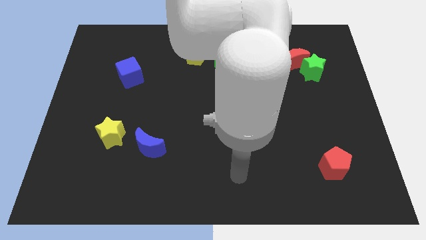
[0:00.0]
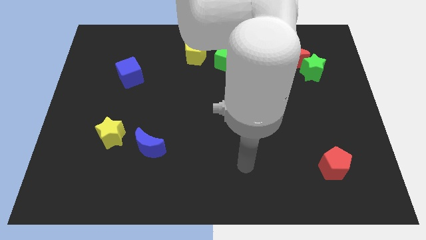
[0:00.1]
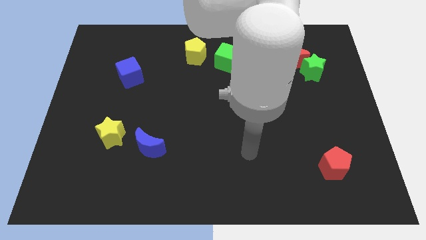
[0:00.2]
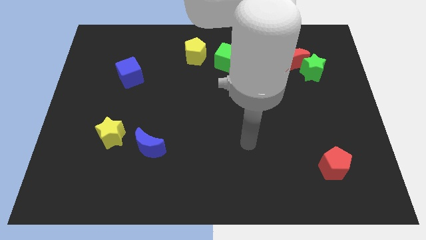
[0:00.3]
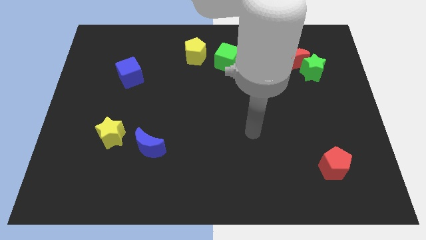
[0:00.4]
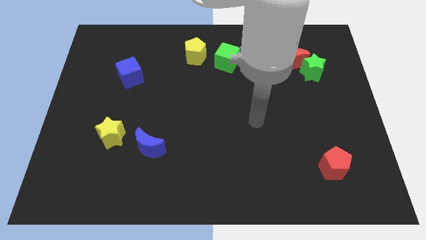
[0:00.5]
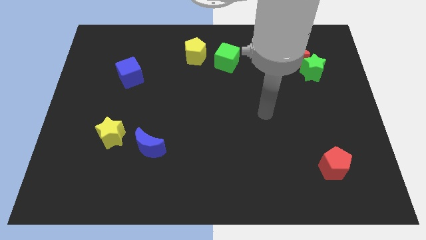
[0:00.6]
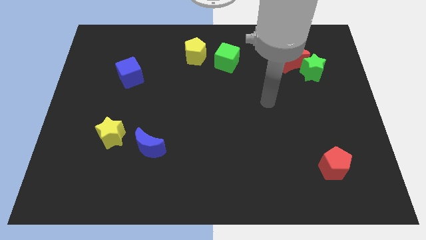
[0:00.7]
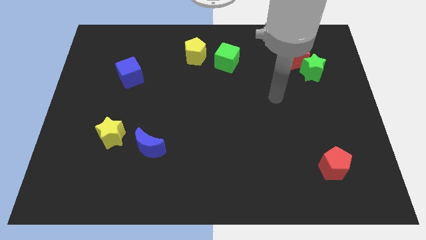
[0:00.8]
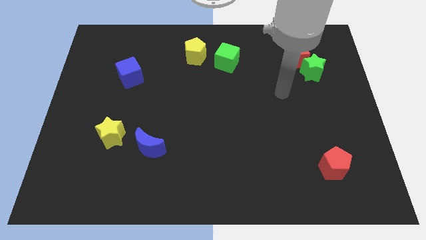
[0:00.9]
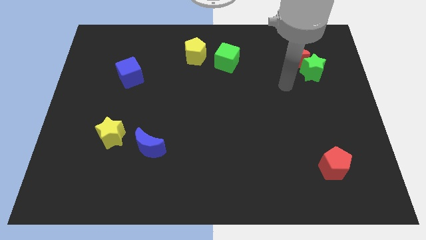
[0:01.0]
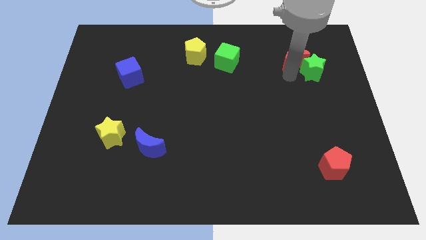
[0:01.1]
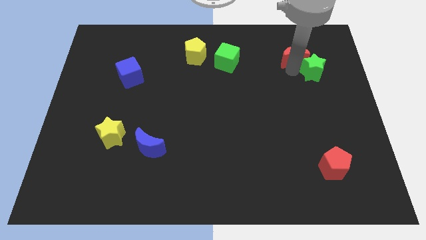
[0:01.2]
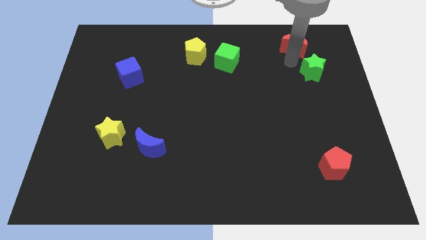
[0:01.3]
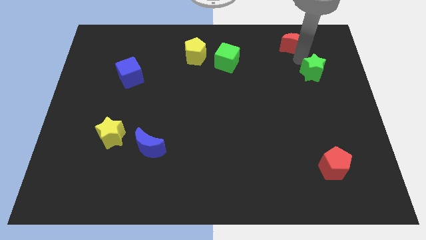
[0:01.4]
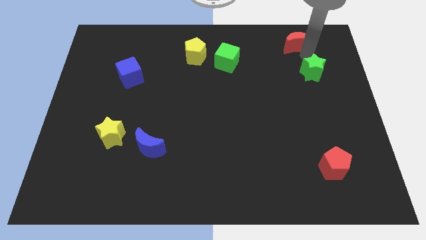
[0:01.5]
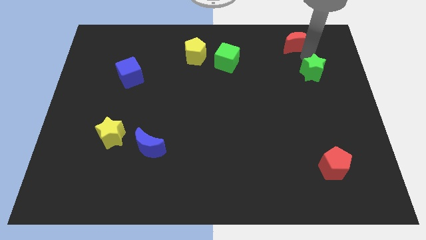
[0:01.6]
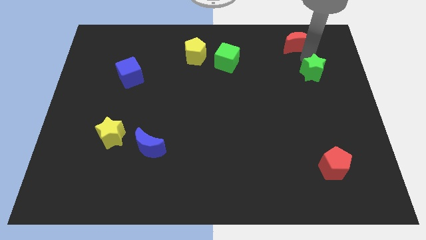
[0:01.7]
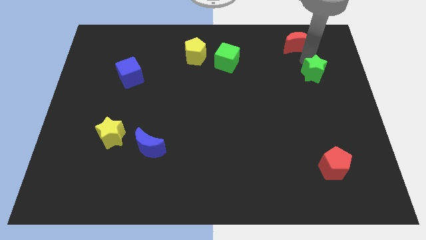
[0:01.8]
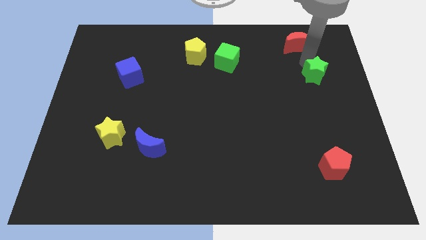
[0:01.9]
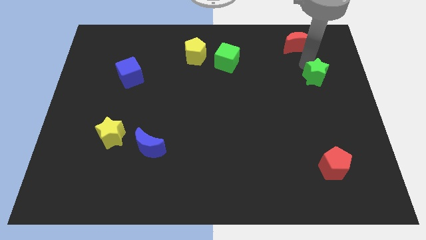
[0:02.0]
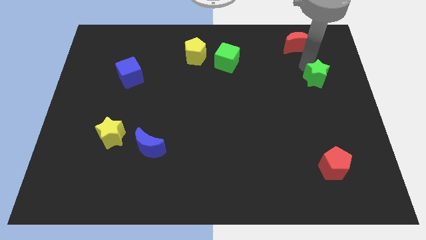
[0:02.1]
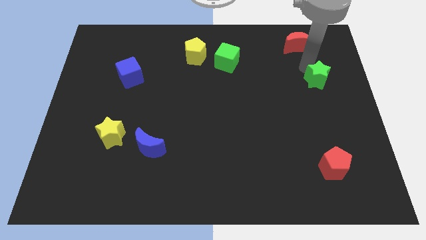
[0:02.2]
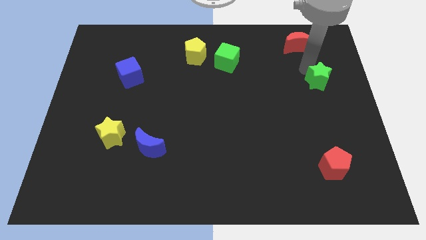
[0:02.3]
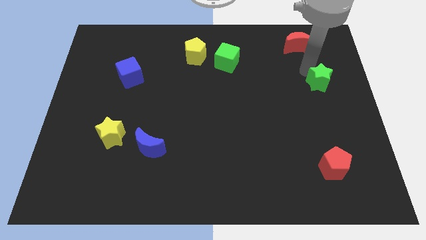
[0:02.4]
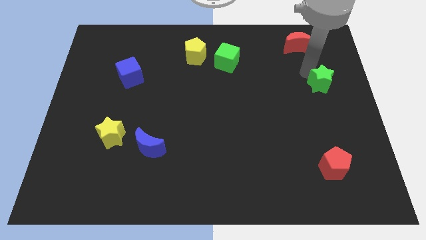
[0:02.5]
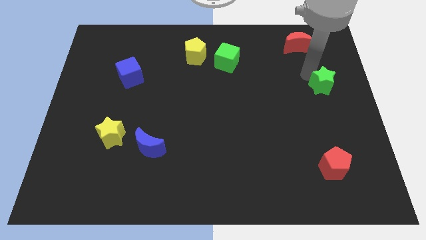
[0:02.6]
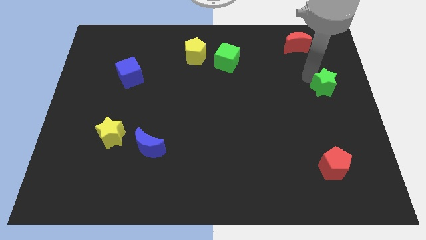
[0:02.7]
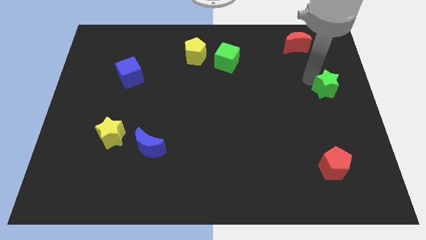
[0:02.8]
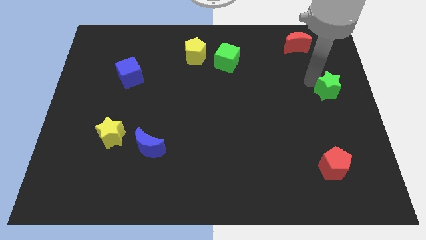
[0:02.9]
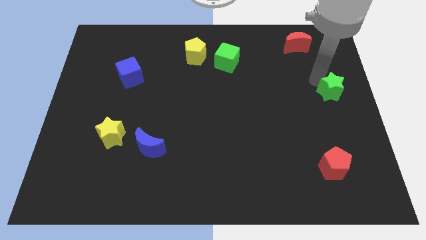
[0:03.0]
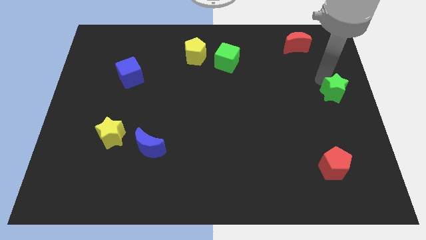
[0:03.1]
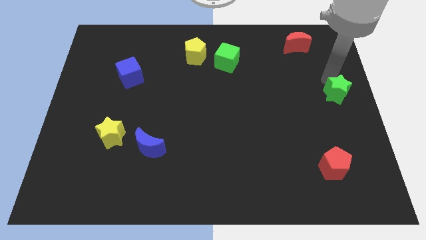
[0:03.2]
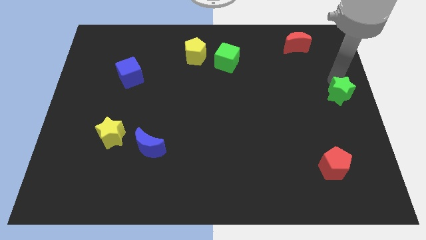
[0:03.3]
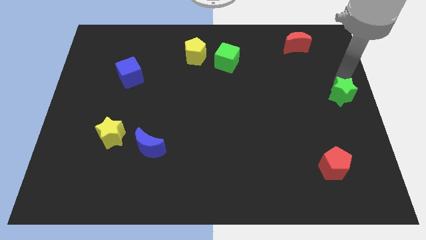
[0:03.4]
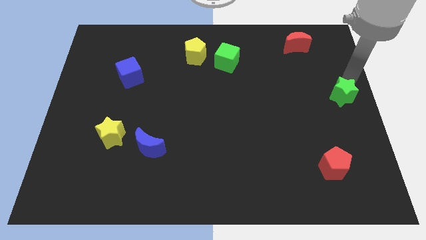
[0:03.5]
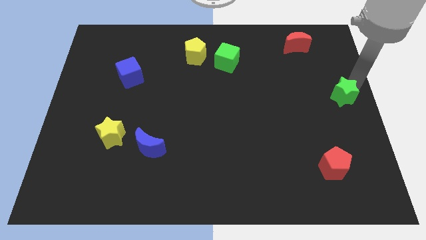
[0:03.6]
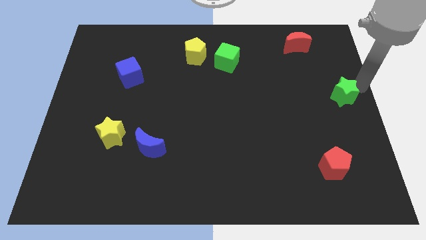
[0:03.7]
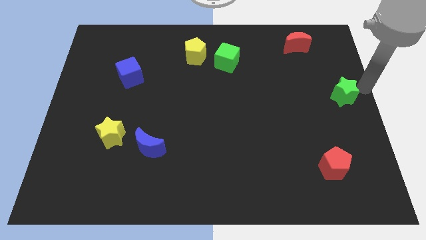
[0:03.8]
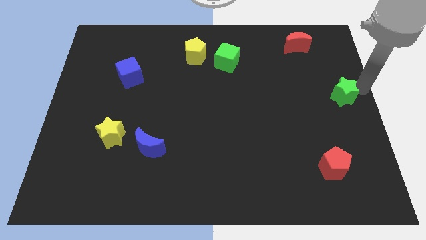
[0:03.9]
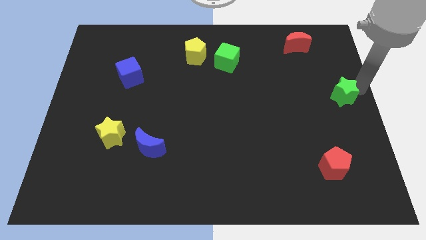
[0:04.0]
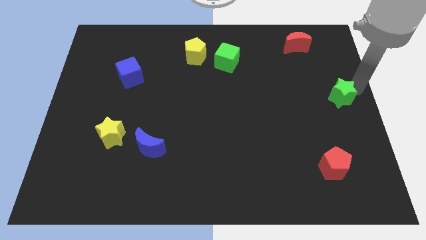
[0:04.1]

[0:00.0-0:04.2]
slightly move the green star downwards

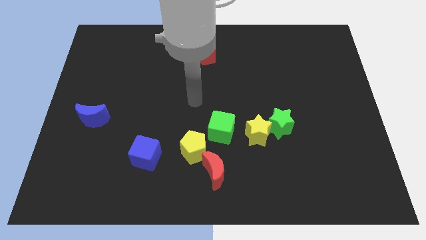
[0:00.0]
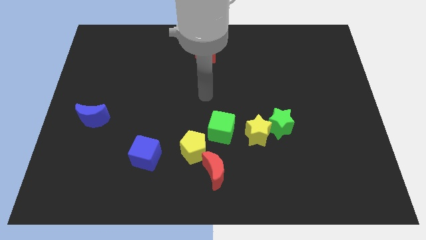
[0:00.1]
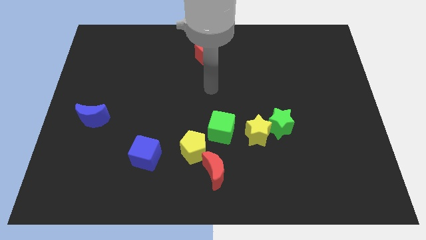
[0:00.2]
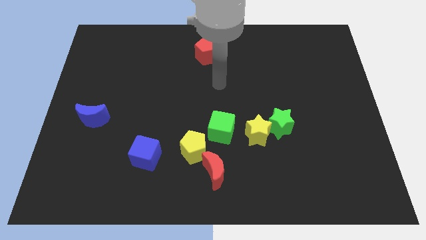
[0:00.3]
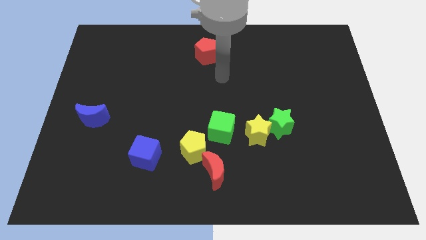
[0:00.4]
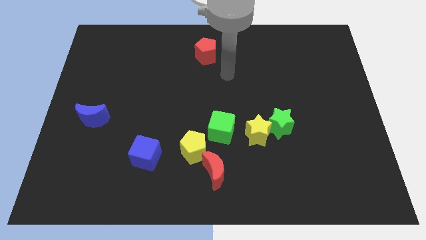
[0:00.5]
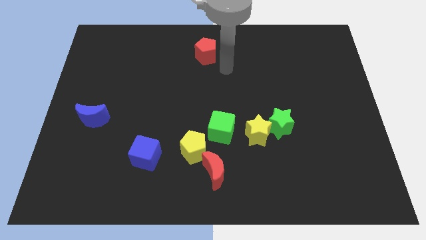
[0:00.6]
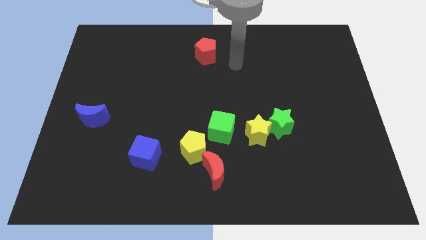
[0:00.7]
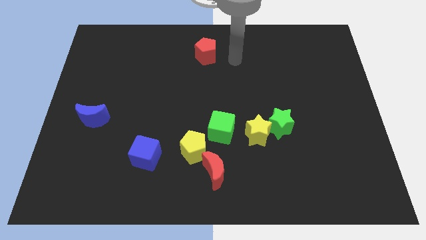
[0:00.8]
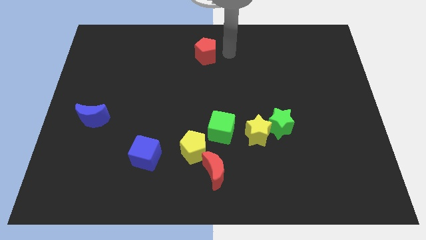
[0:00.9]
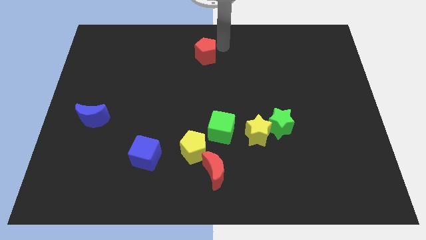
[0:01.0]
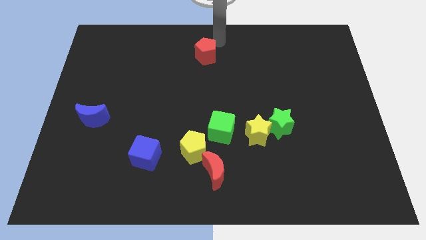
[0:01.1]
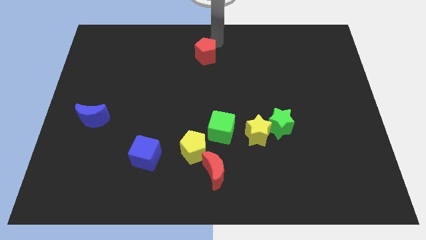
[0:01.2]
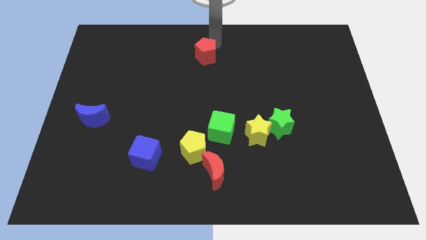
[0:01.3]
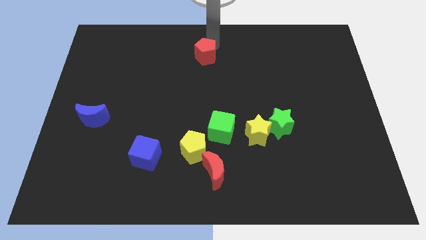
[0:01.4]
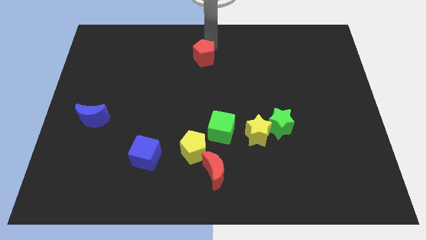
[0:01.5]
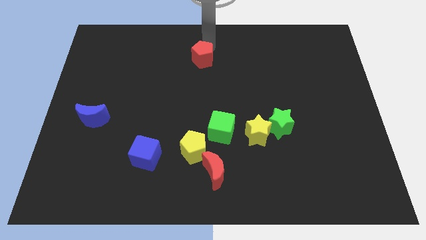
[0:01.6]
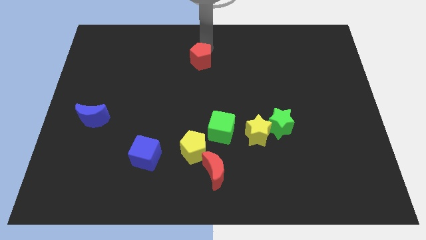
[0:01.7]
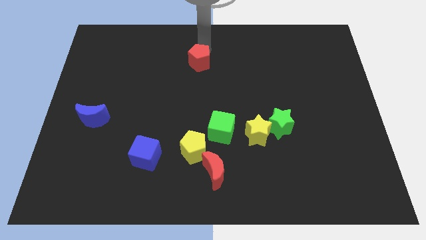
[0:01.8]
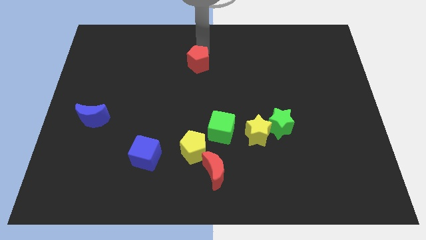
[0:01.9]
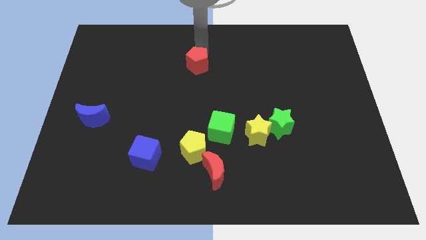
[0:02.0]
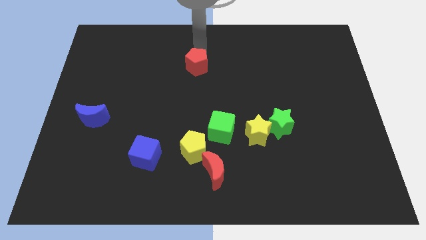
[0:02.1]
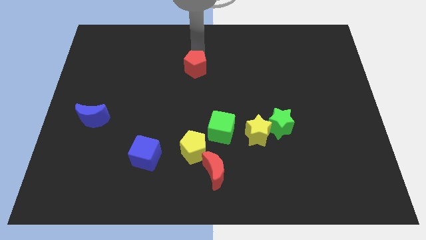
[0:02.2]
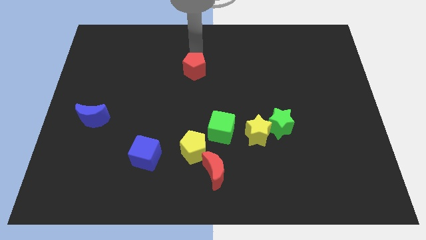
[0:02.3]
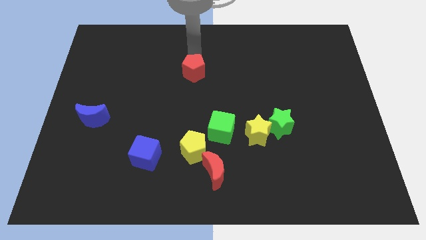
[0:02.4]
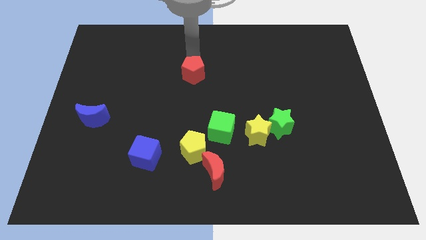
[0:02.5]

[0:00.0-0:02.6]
slightly move the red pentagon downwards and left diagonally

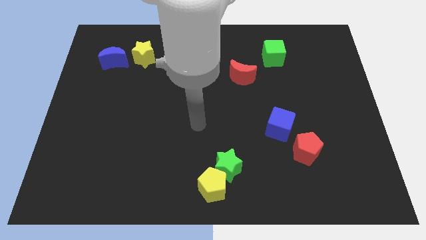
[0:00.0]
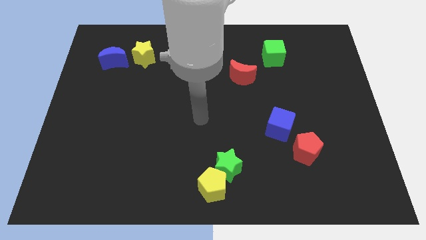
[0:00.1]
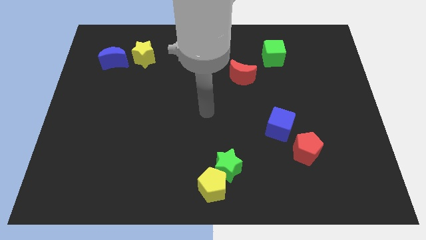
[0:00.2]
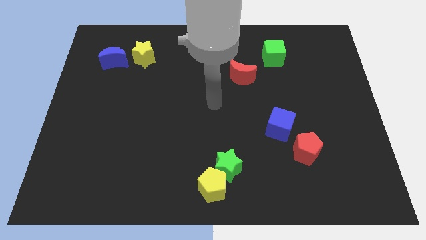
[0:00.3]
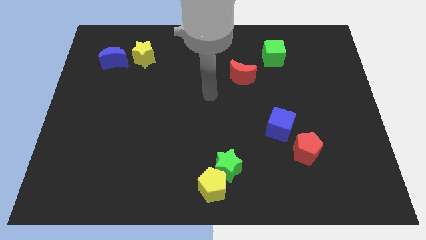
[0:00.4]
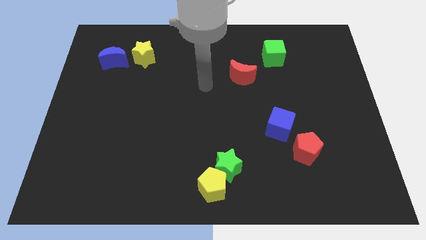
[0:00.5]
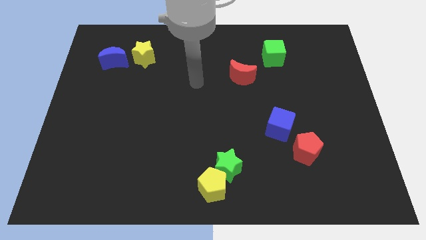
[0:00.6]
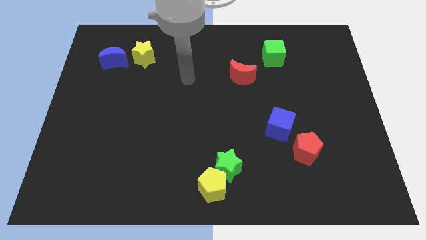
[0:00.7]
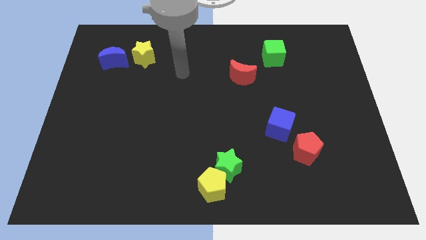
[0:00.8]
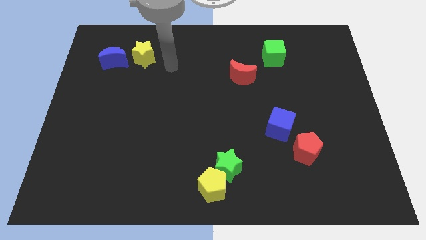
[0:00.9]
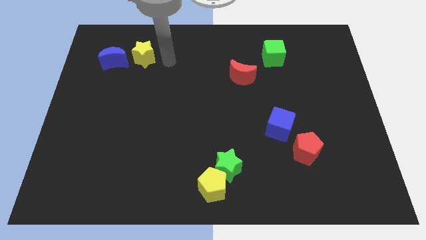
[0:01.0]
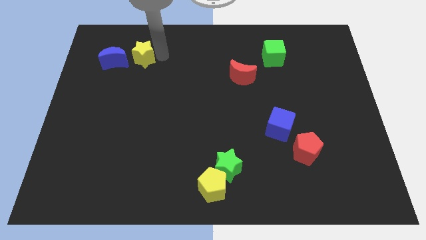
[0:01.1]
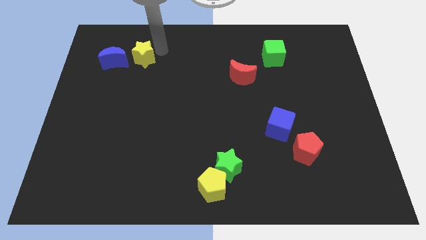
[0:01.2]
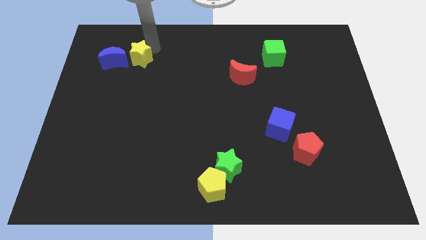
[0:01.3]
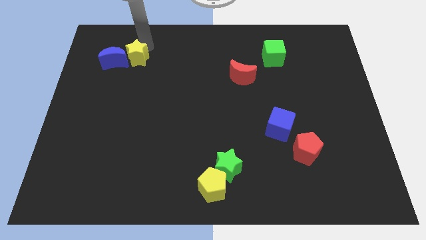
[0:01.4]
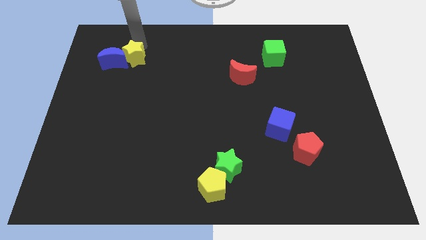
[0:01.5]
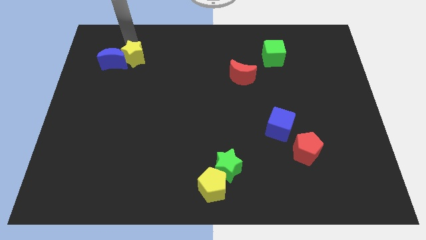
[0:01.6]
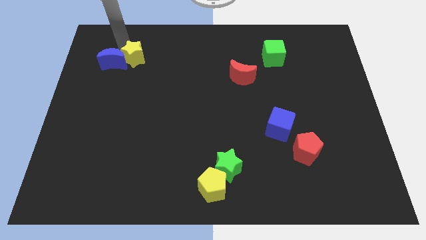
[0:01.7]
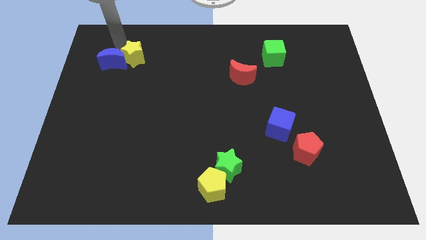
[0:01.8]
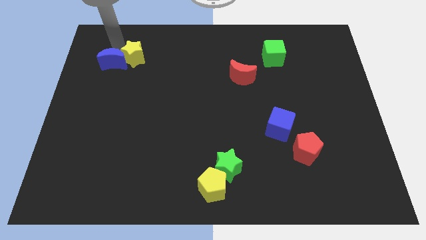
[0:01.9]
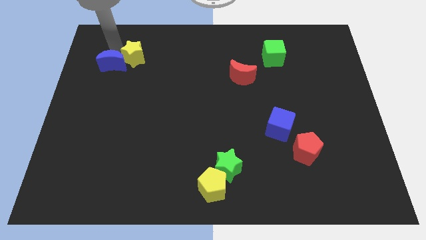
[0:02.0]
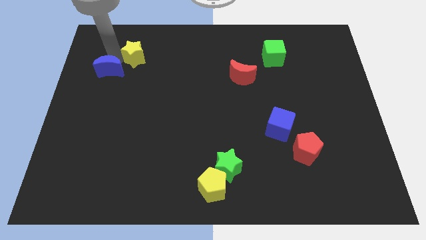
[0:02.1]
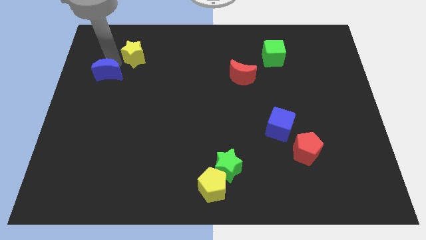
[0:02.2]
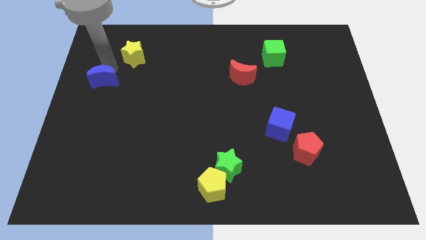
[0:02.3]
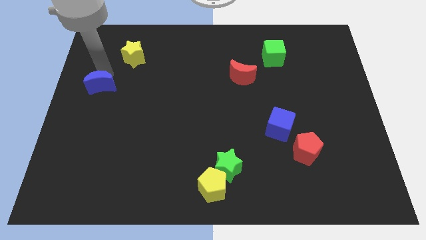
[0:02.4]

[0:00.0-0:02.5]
move the blue moon down a little bit
